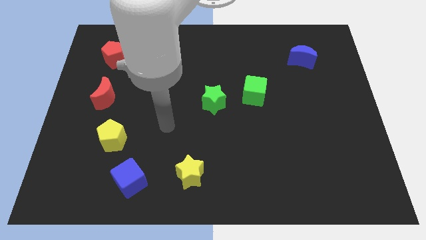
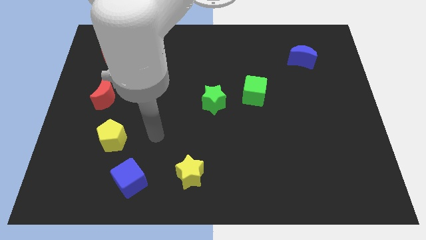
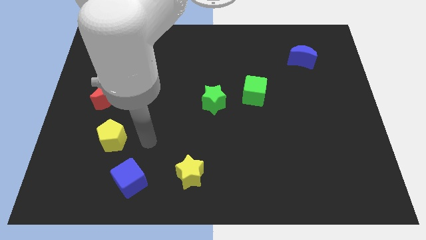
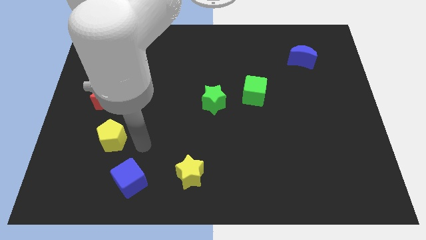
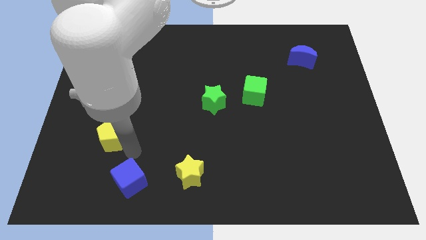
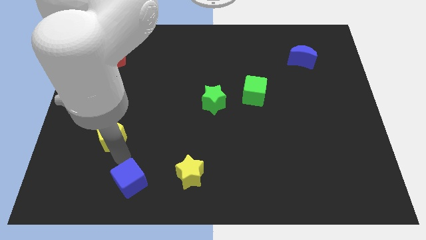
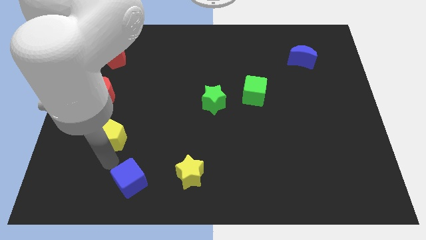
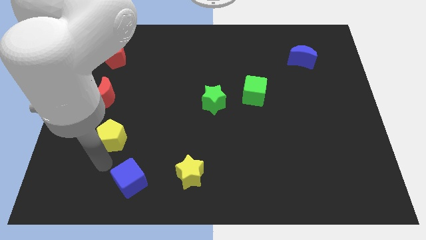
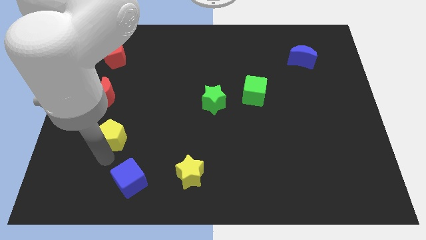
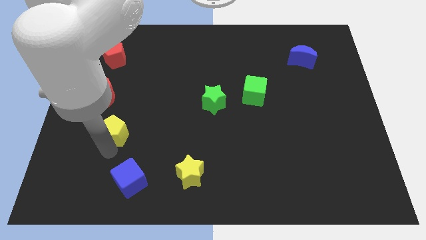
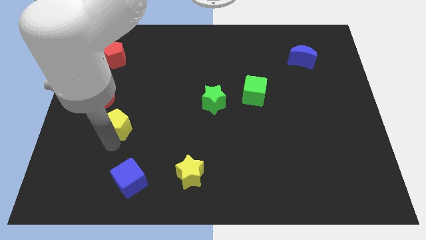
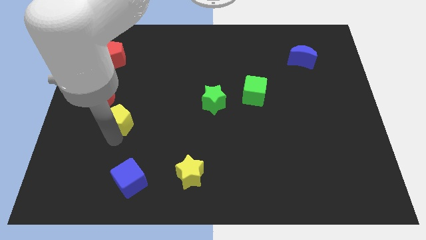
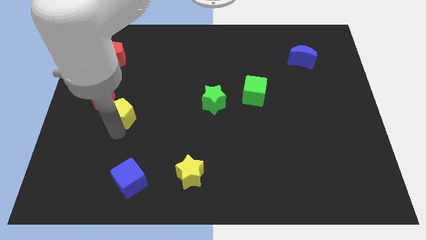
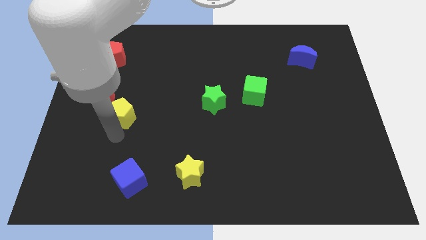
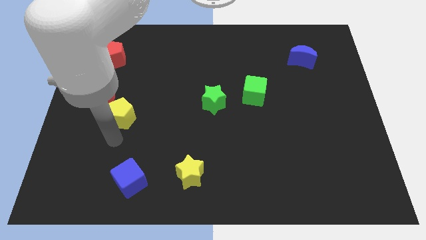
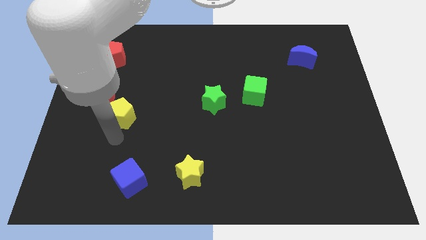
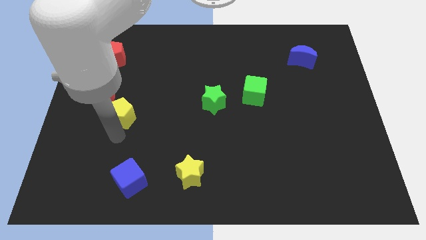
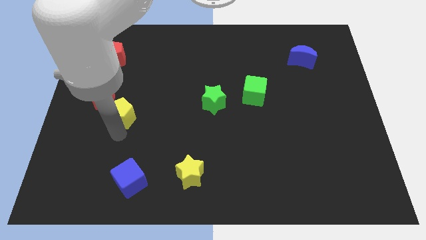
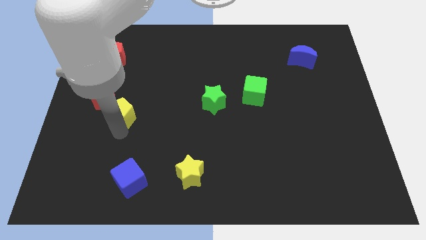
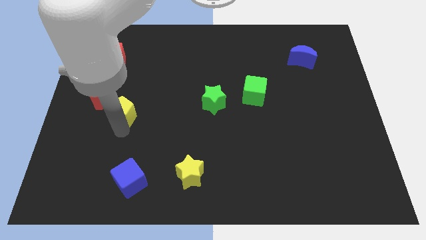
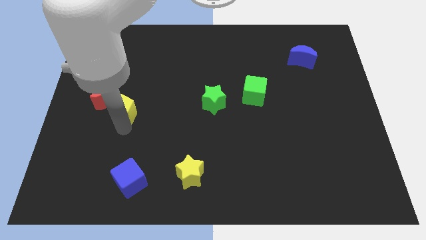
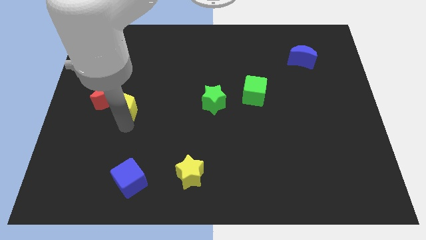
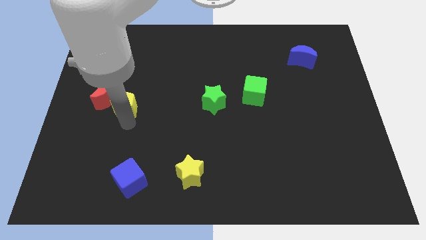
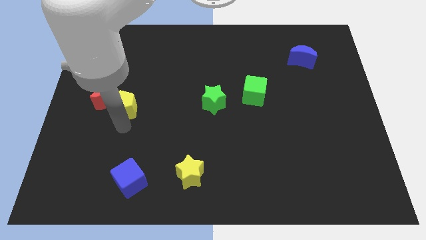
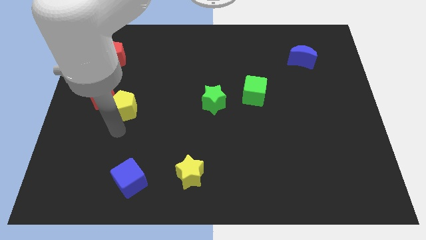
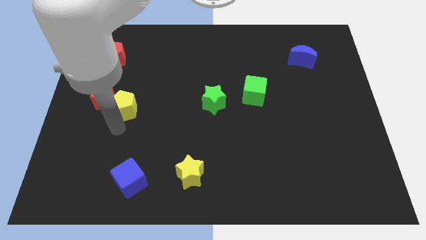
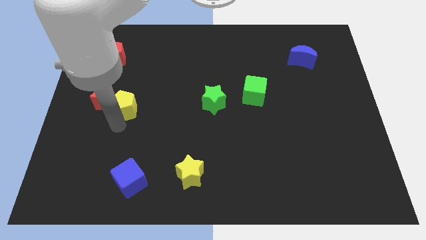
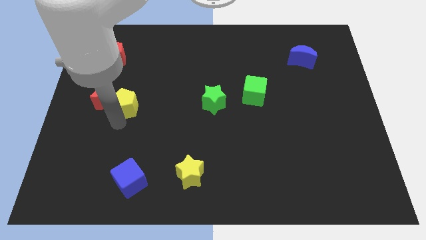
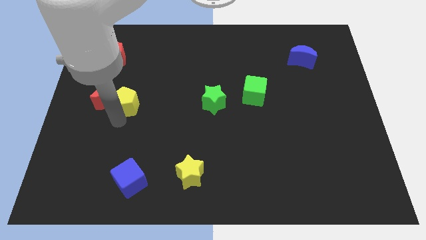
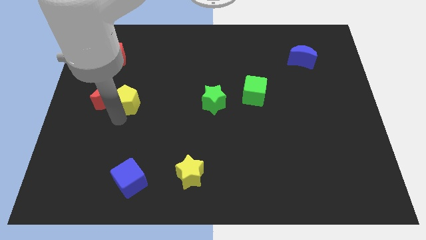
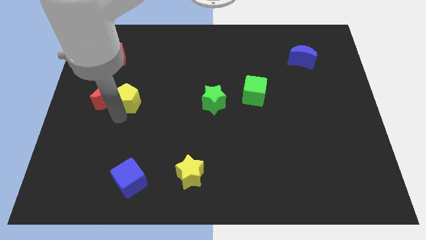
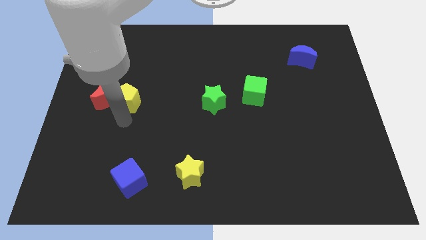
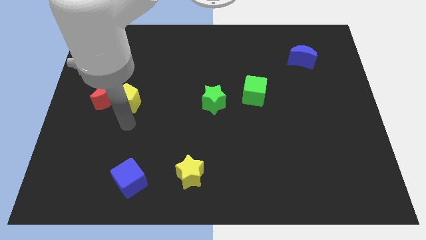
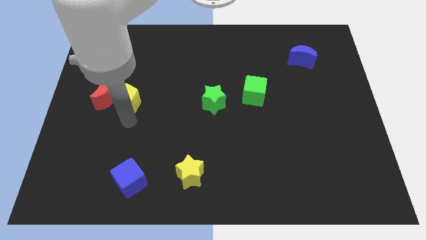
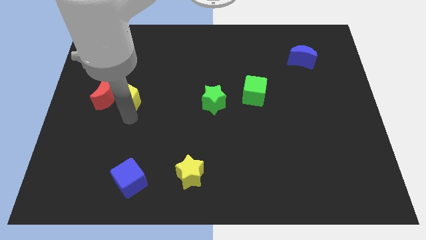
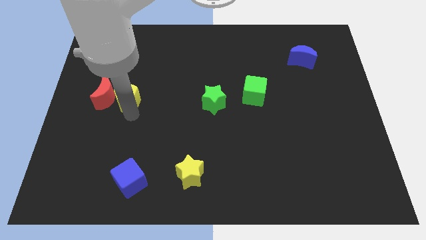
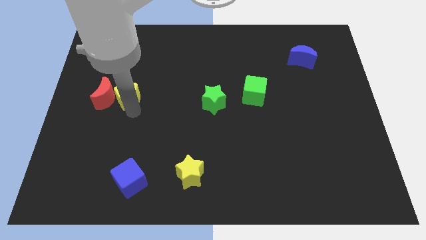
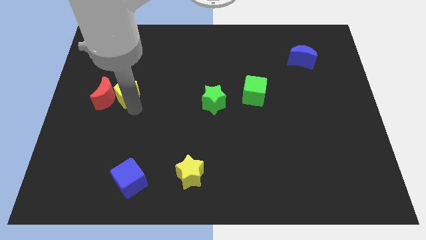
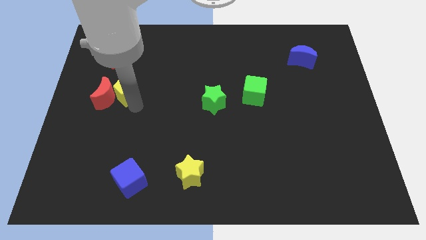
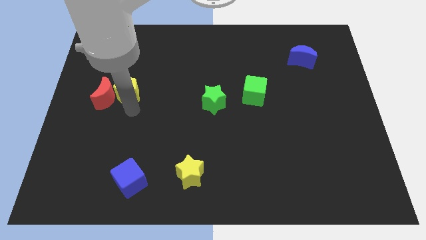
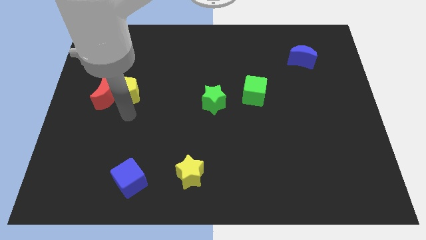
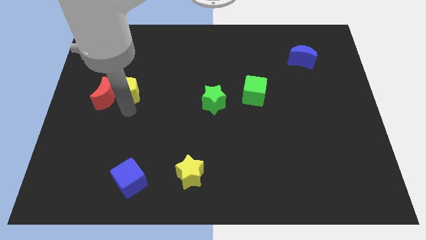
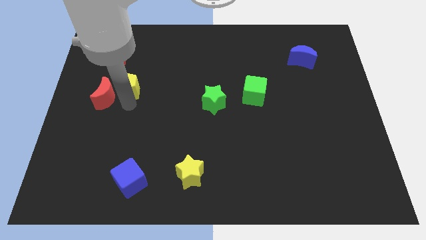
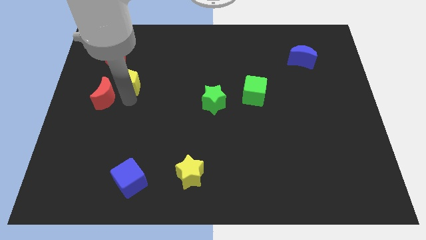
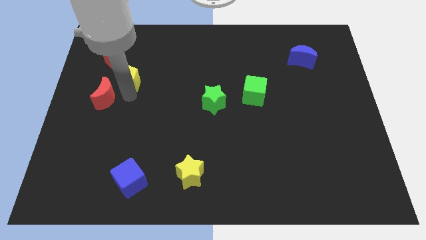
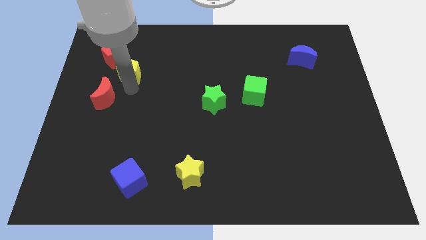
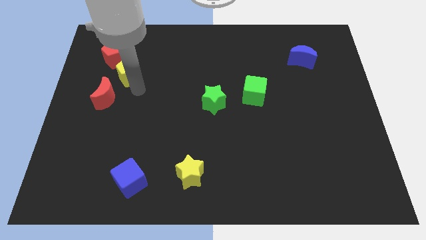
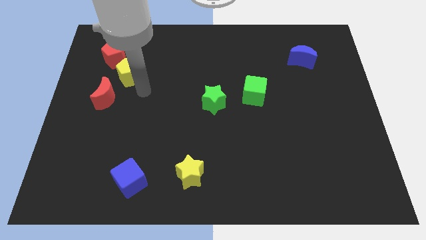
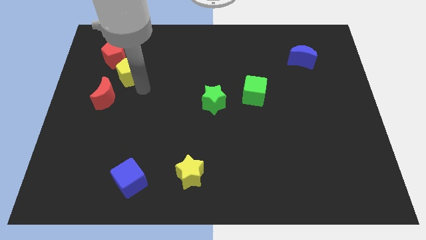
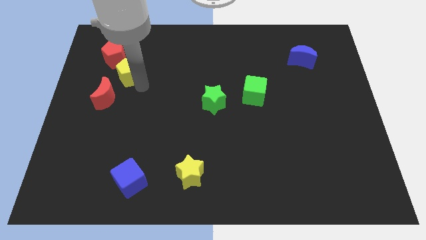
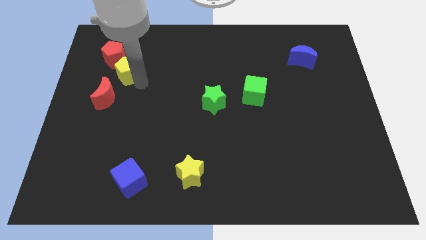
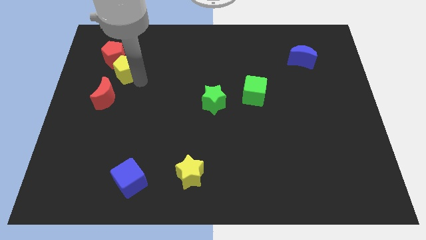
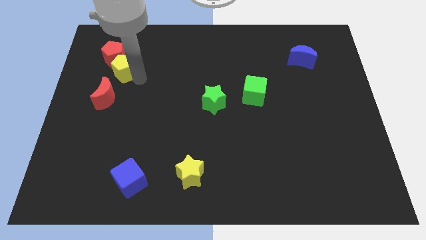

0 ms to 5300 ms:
push the yellow pentagon towards the red pentagon

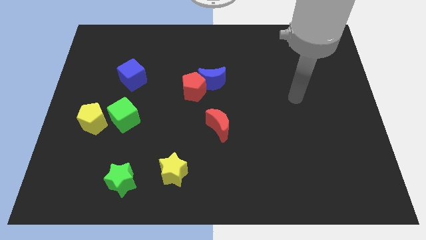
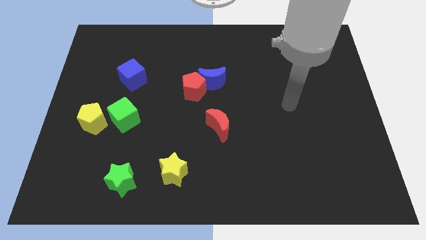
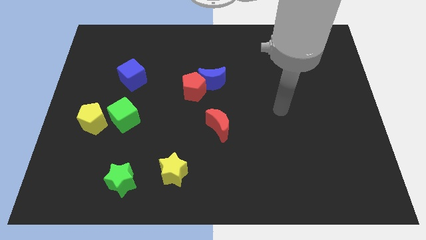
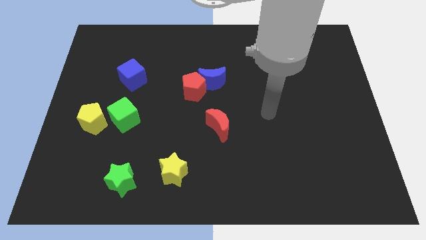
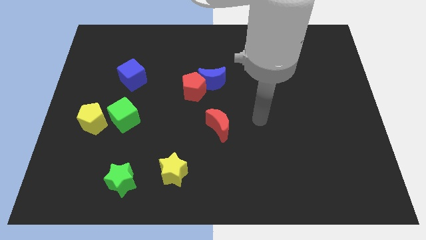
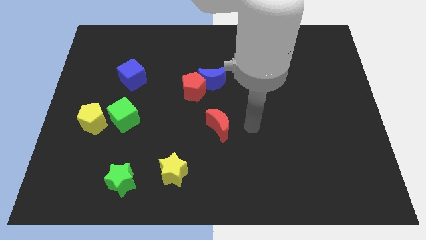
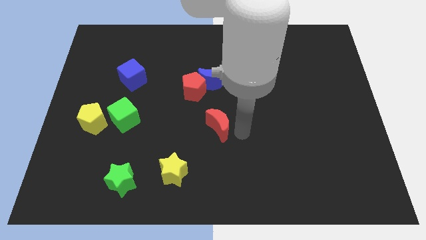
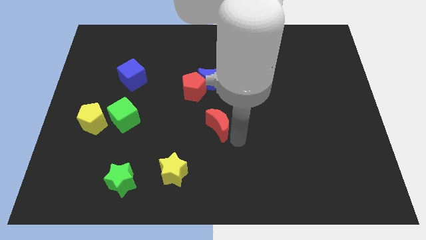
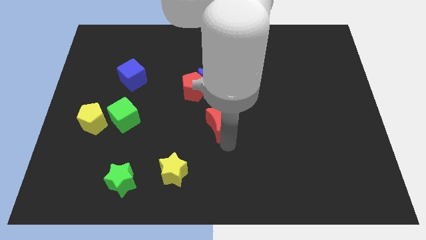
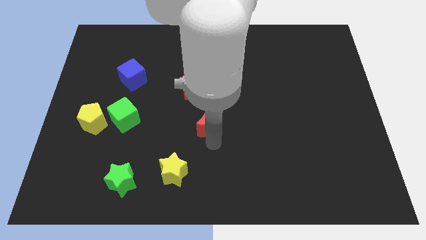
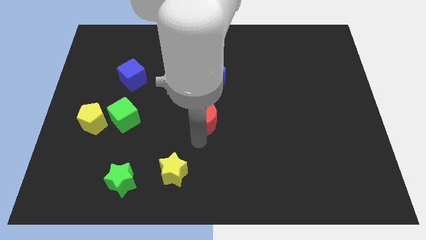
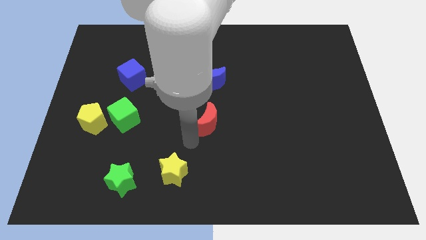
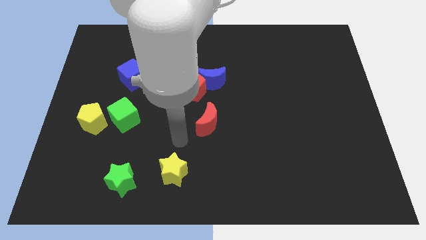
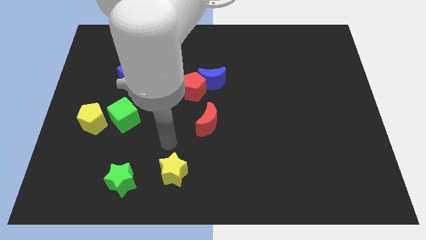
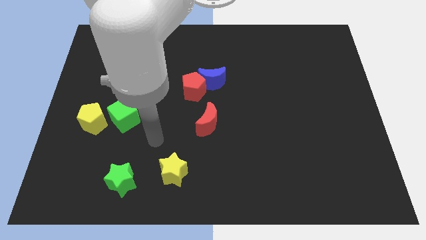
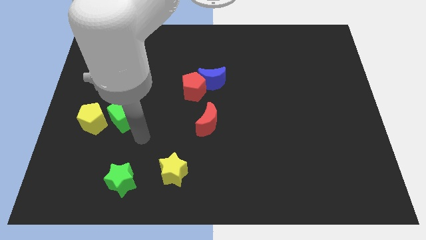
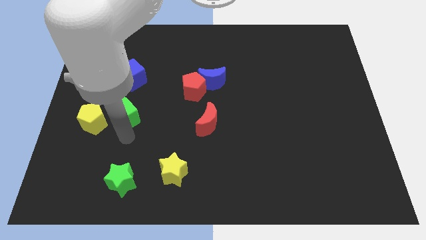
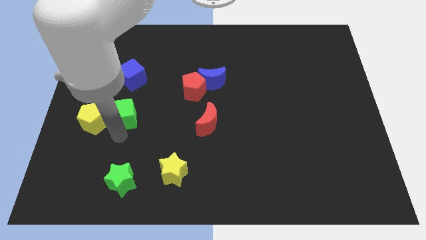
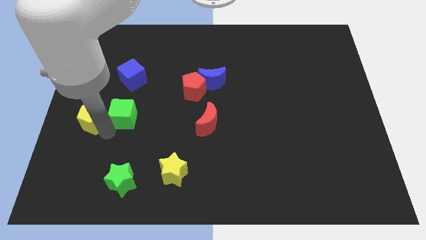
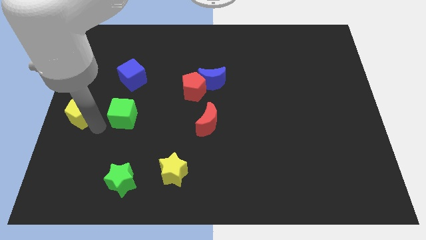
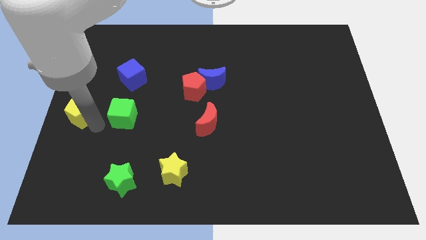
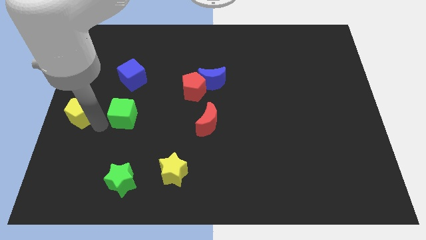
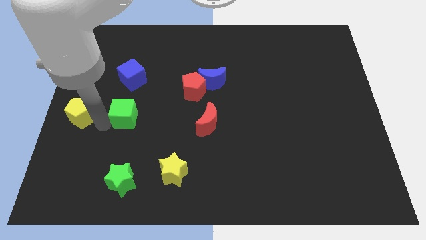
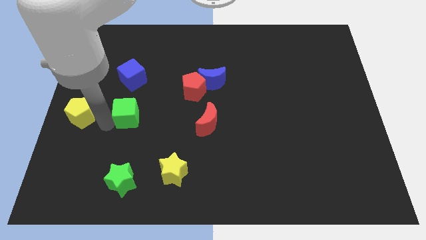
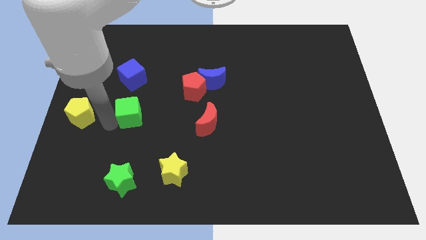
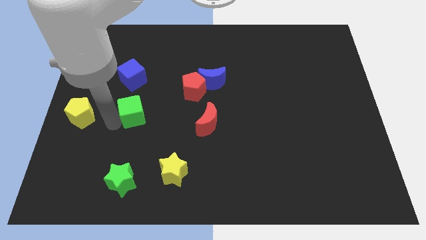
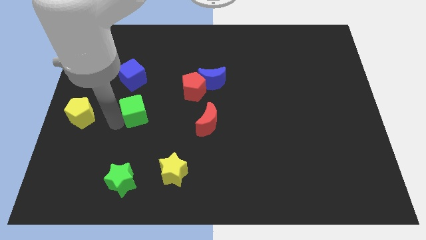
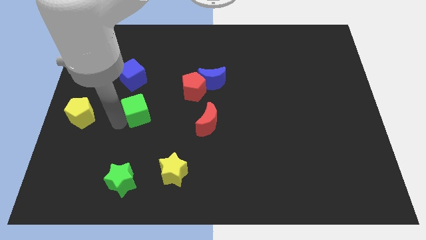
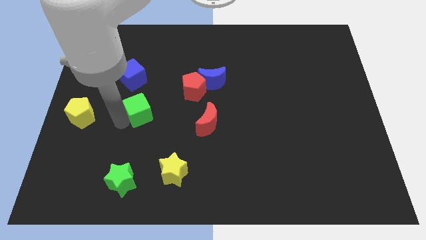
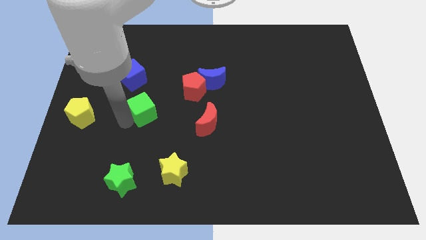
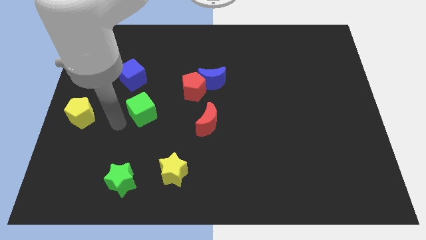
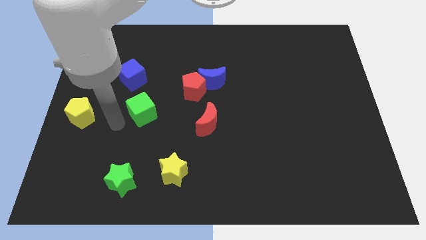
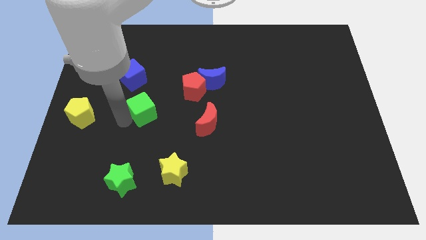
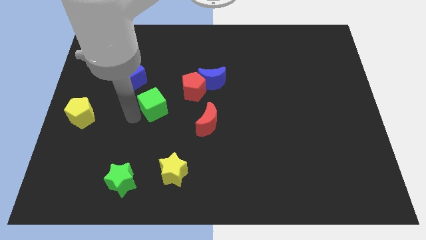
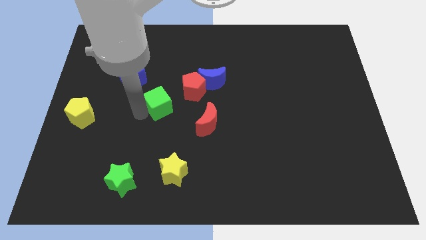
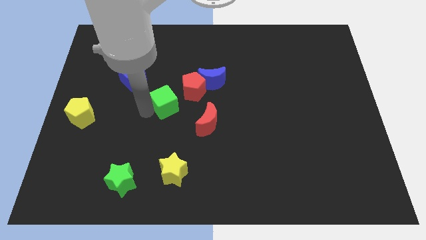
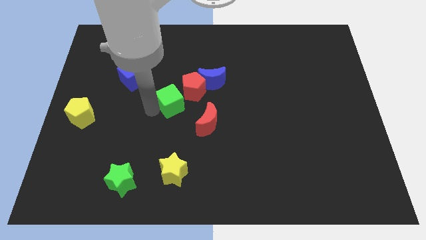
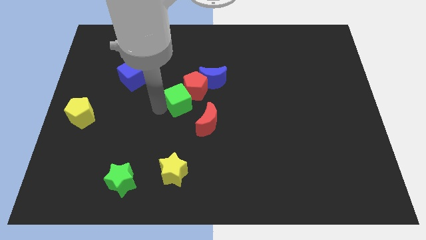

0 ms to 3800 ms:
push the green cube to the red pentagon
